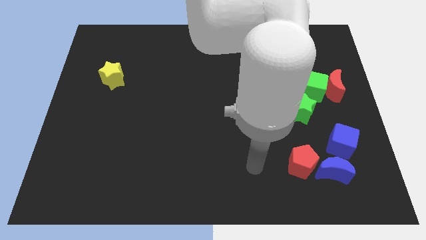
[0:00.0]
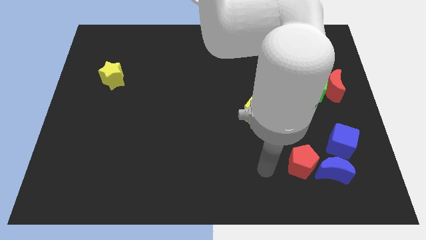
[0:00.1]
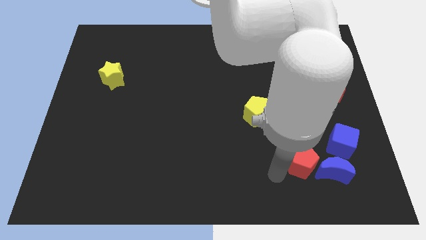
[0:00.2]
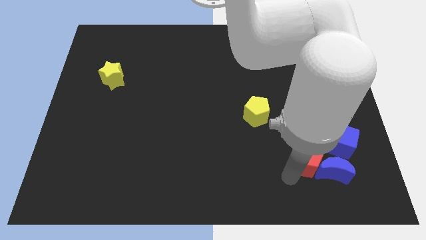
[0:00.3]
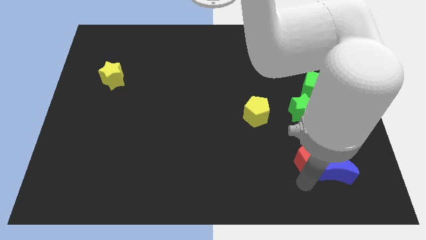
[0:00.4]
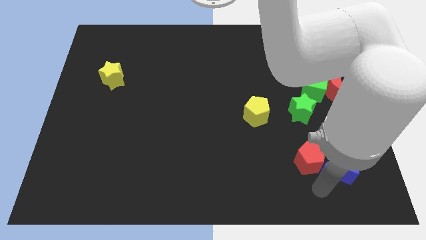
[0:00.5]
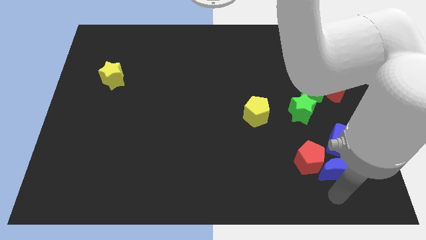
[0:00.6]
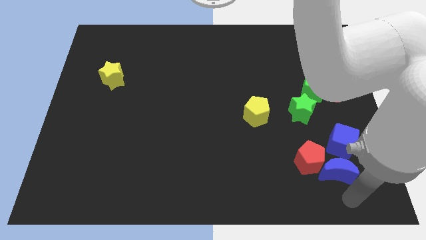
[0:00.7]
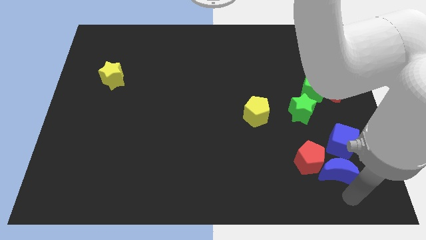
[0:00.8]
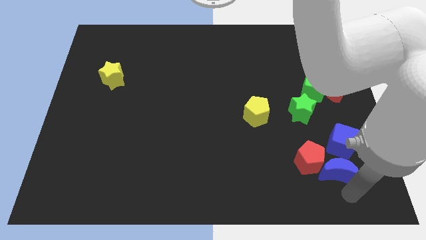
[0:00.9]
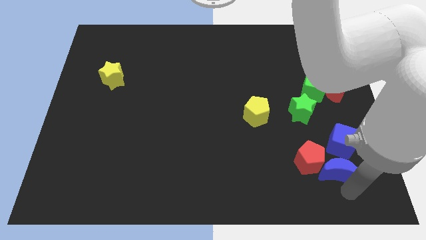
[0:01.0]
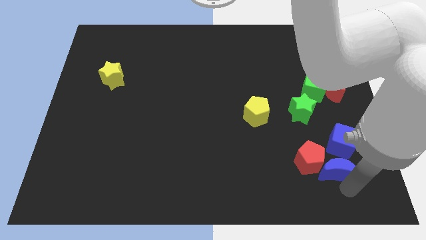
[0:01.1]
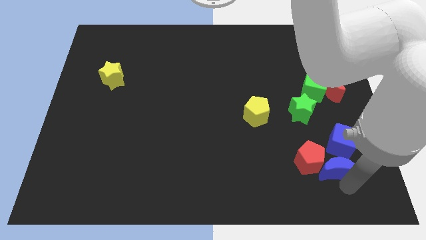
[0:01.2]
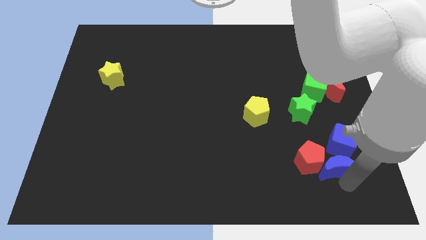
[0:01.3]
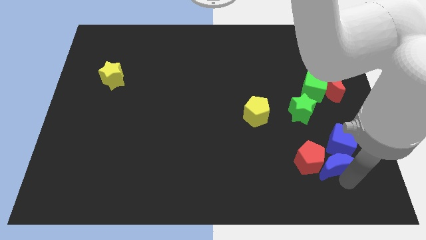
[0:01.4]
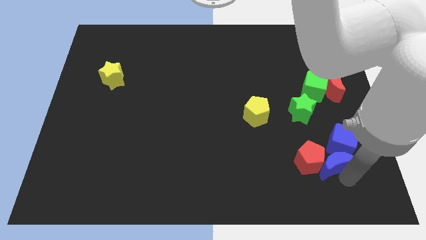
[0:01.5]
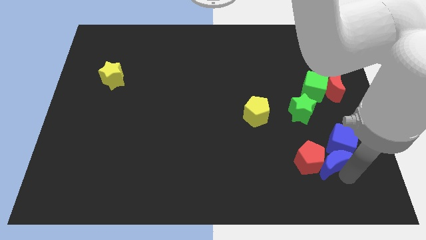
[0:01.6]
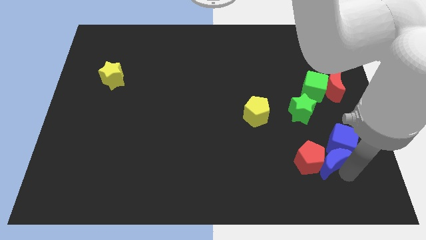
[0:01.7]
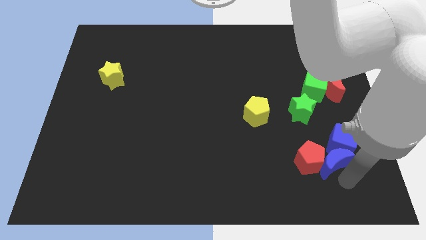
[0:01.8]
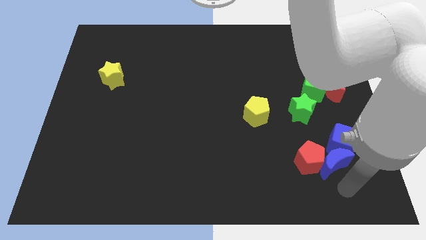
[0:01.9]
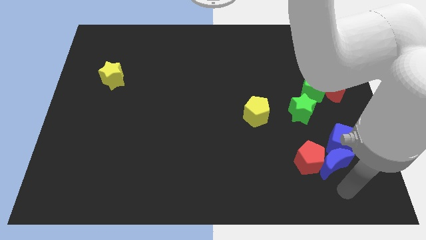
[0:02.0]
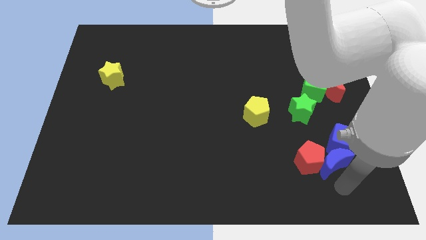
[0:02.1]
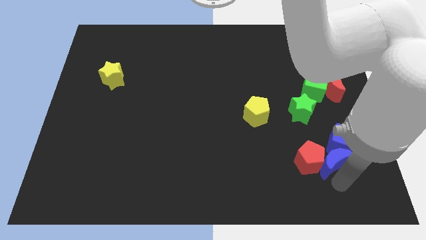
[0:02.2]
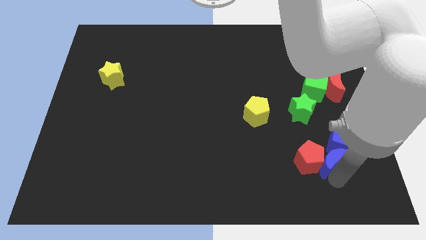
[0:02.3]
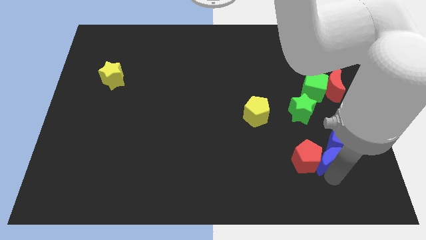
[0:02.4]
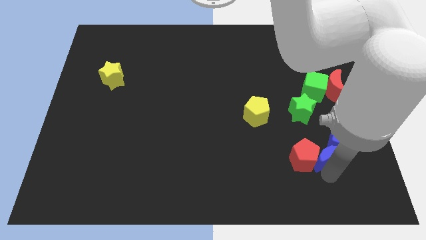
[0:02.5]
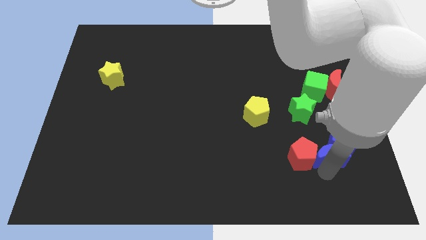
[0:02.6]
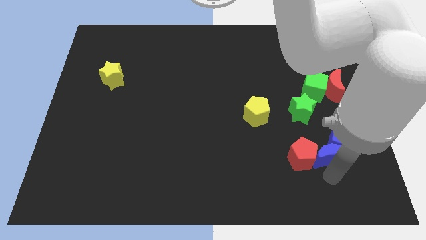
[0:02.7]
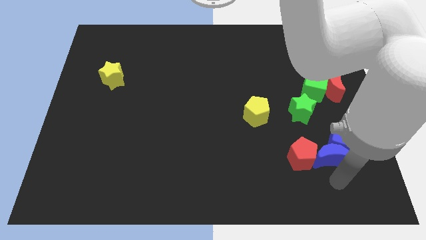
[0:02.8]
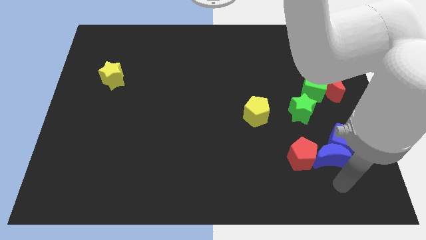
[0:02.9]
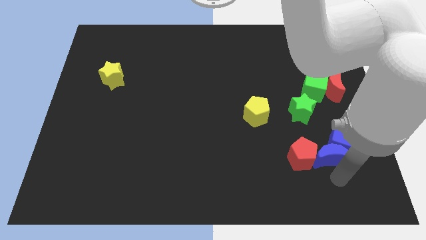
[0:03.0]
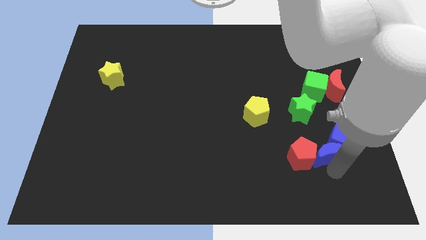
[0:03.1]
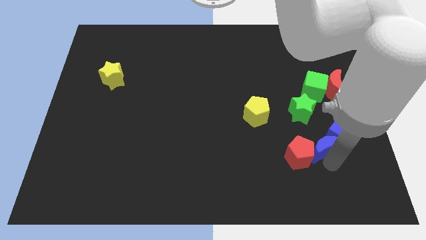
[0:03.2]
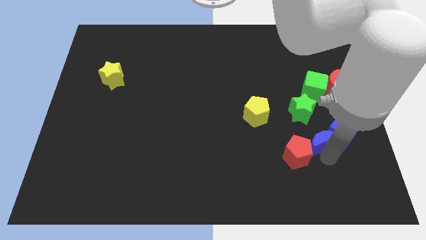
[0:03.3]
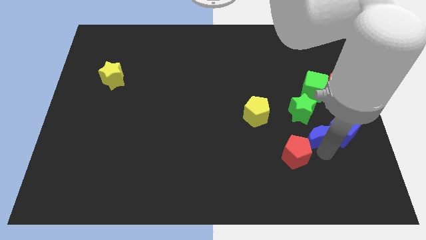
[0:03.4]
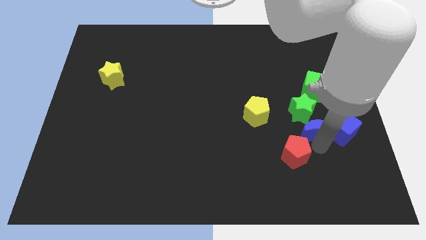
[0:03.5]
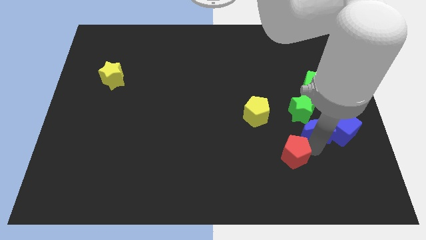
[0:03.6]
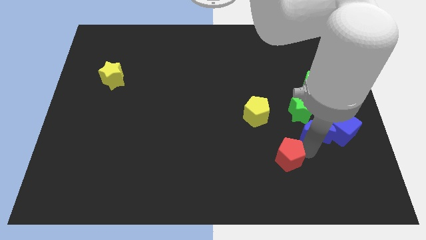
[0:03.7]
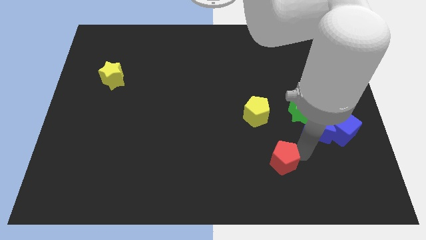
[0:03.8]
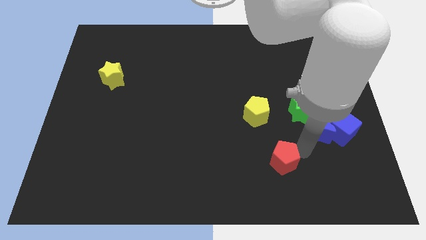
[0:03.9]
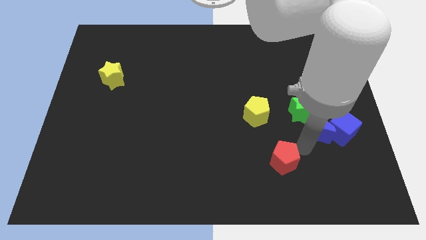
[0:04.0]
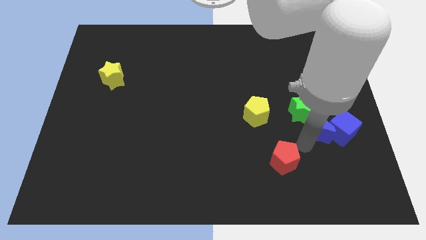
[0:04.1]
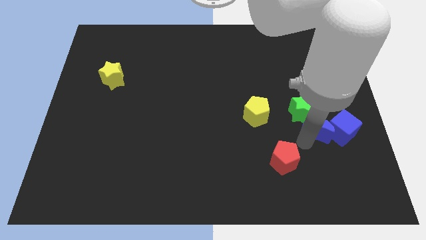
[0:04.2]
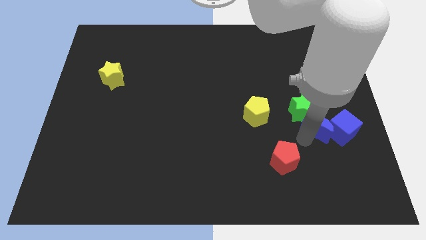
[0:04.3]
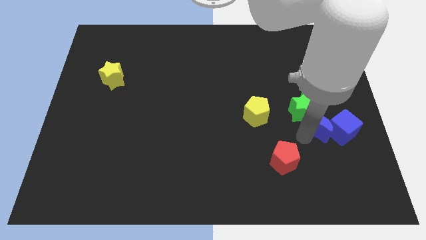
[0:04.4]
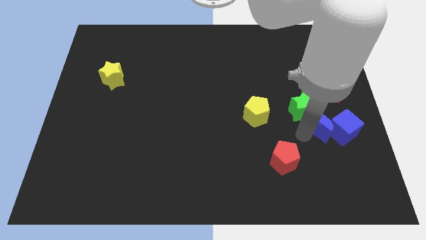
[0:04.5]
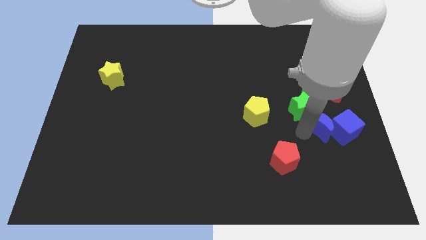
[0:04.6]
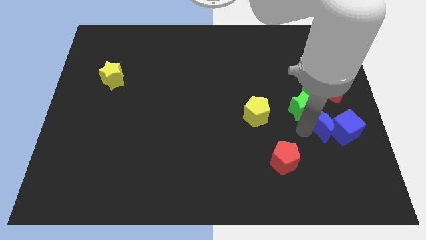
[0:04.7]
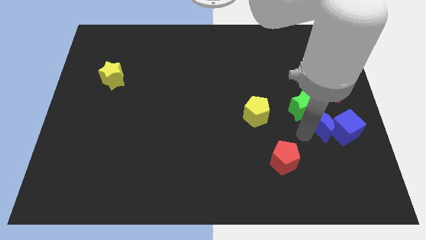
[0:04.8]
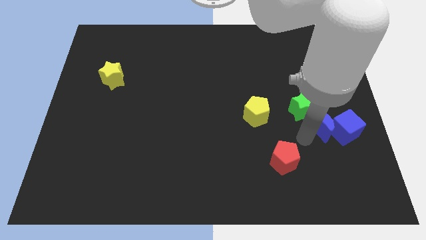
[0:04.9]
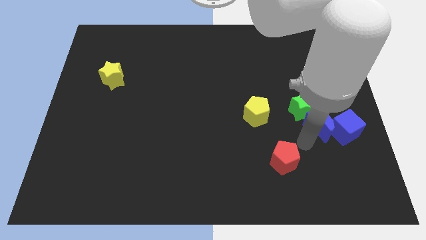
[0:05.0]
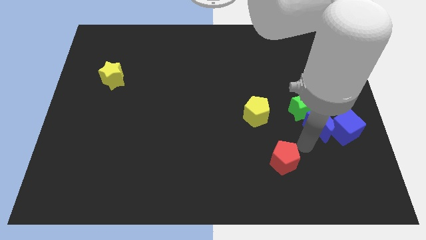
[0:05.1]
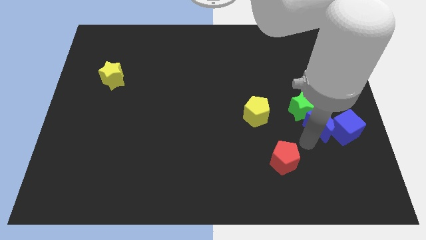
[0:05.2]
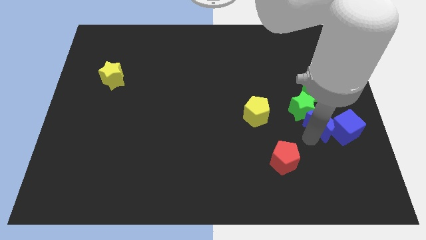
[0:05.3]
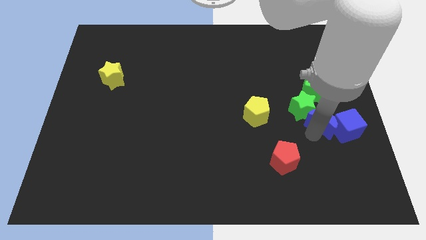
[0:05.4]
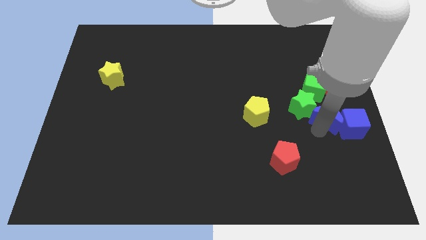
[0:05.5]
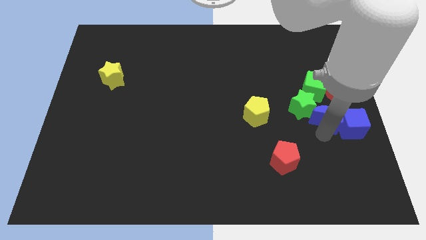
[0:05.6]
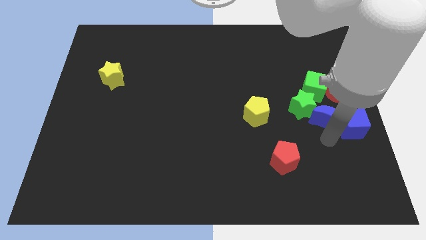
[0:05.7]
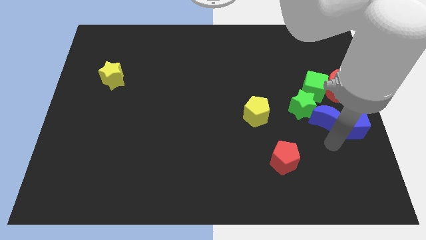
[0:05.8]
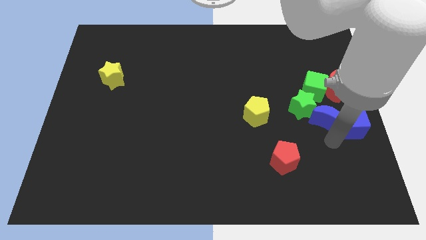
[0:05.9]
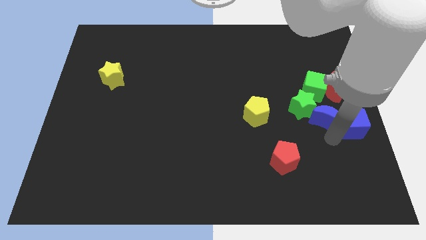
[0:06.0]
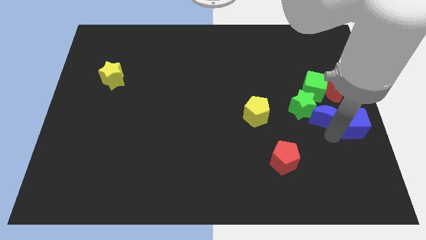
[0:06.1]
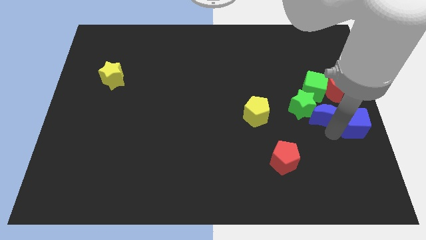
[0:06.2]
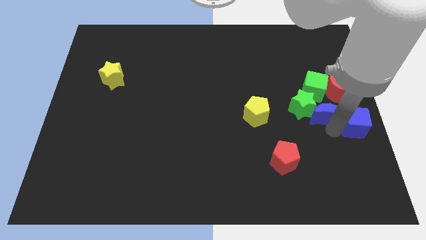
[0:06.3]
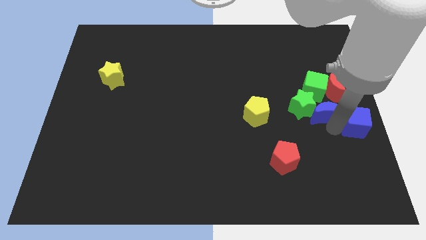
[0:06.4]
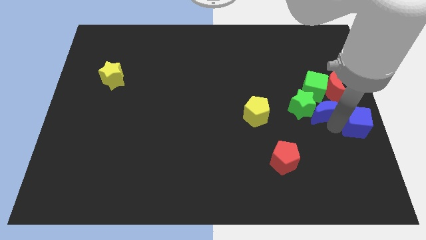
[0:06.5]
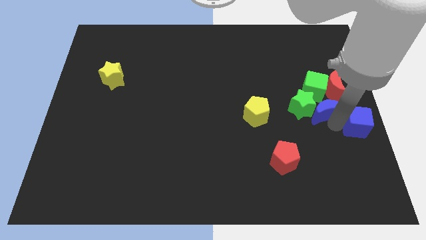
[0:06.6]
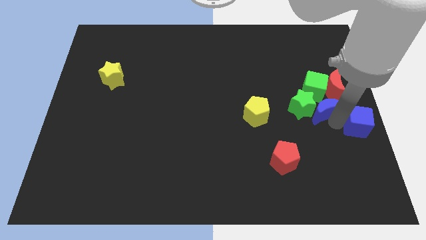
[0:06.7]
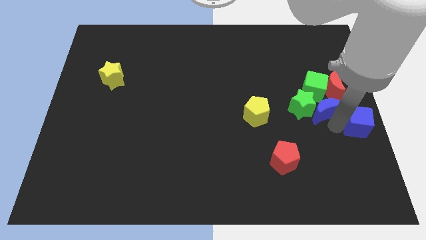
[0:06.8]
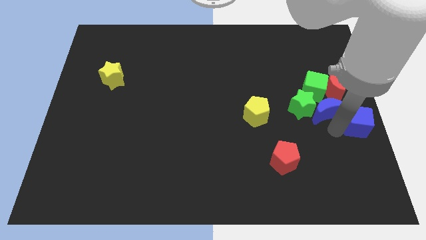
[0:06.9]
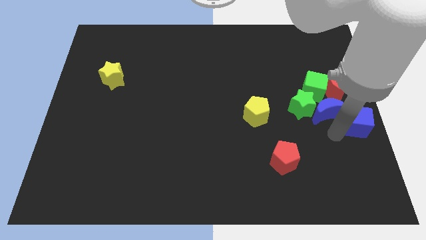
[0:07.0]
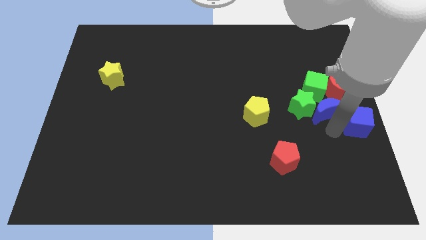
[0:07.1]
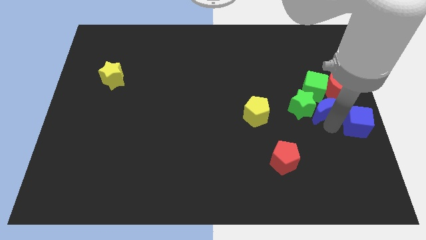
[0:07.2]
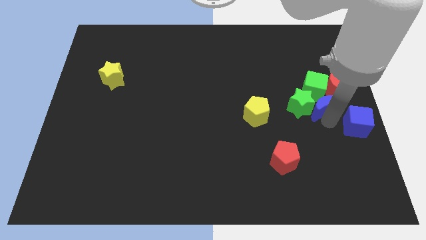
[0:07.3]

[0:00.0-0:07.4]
put the blue moon close to the green cube
